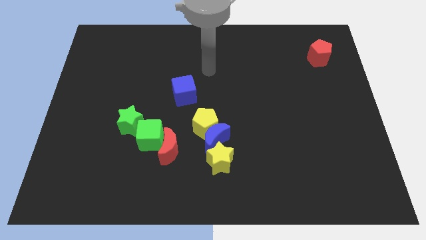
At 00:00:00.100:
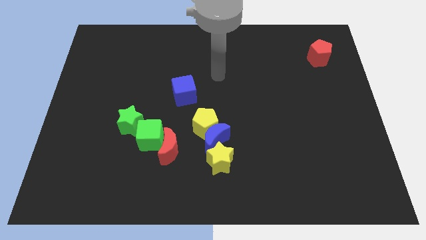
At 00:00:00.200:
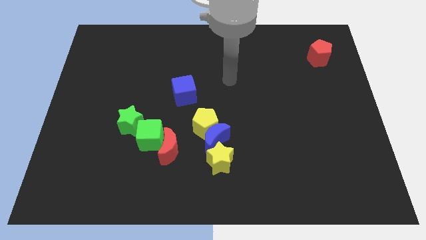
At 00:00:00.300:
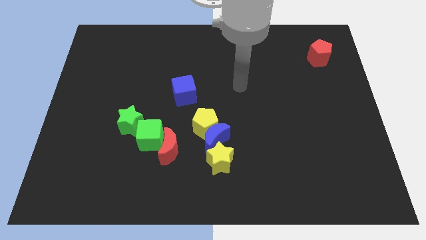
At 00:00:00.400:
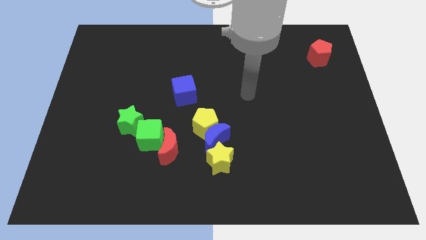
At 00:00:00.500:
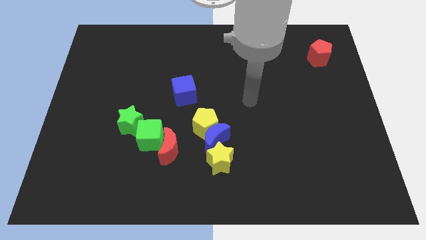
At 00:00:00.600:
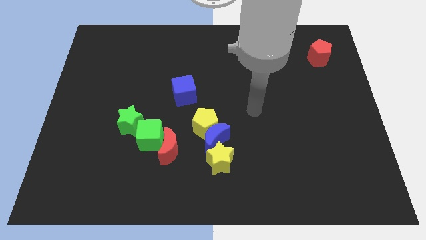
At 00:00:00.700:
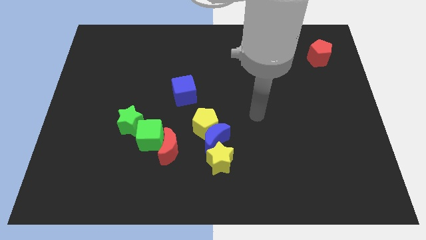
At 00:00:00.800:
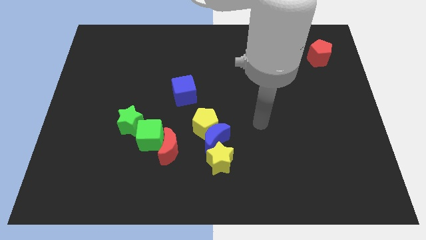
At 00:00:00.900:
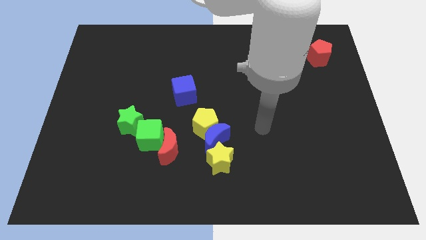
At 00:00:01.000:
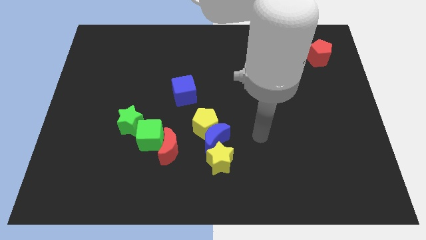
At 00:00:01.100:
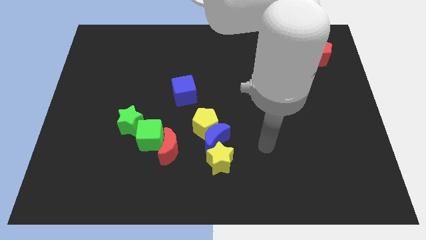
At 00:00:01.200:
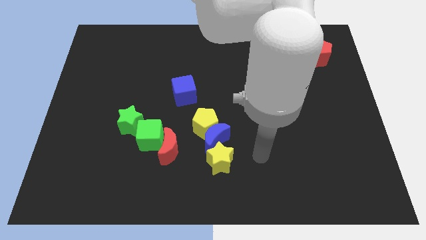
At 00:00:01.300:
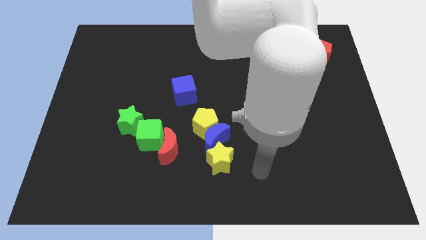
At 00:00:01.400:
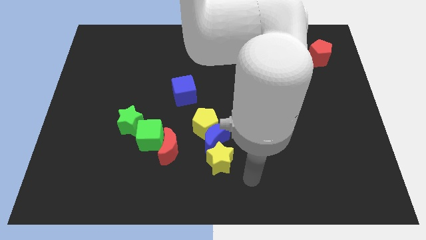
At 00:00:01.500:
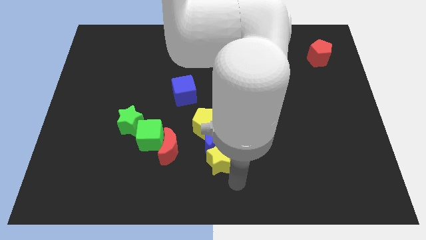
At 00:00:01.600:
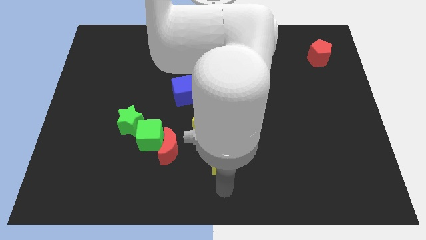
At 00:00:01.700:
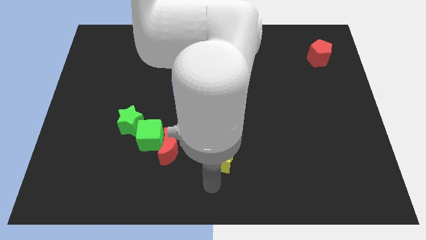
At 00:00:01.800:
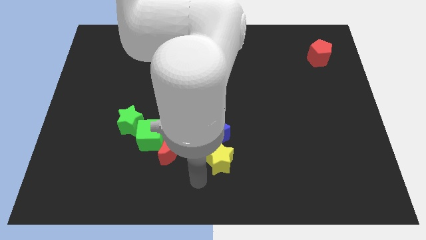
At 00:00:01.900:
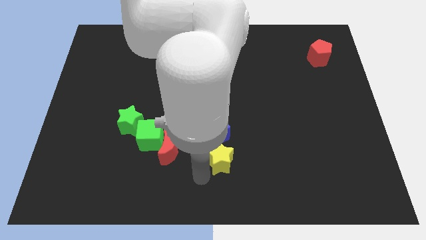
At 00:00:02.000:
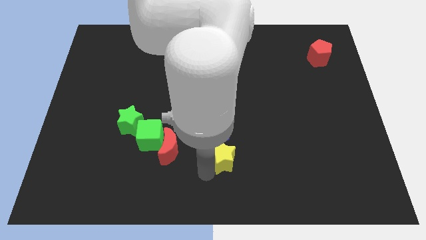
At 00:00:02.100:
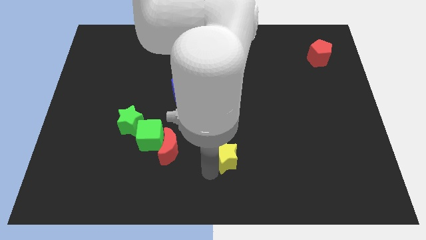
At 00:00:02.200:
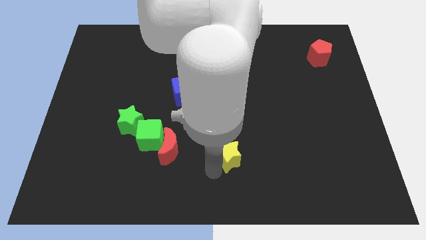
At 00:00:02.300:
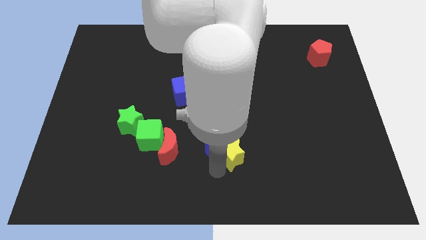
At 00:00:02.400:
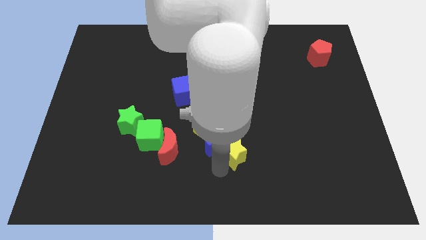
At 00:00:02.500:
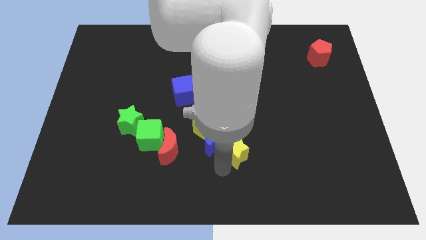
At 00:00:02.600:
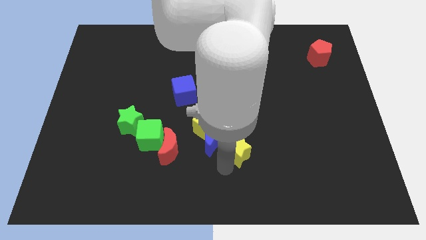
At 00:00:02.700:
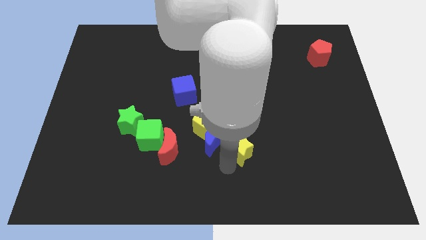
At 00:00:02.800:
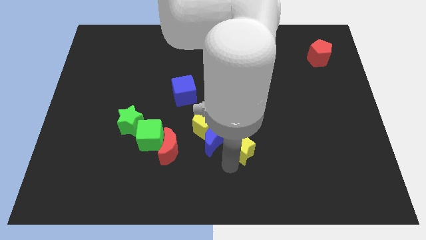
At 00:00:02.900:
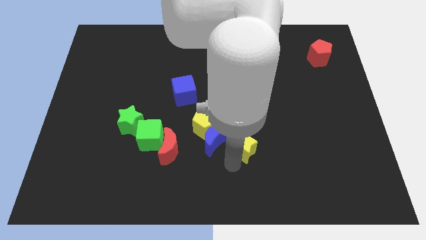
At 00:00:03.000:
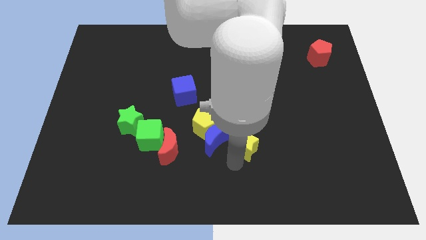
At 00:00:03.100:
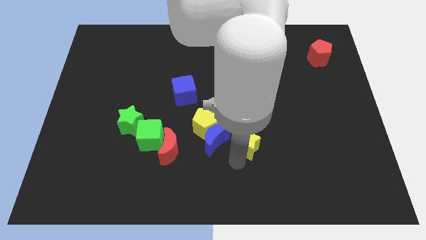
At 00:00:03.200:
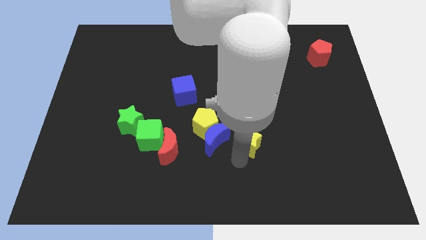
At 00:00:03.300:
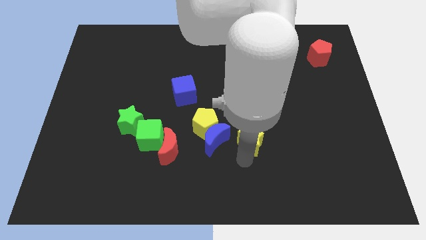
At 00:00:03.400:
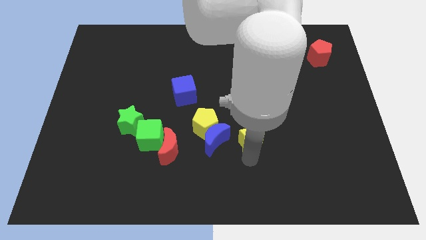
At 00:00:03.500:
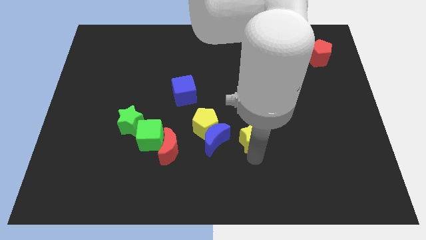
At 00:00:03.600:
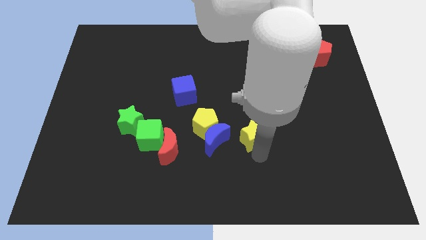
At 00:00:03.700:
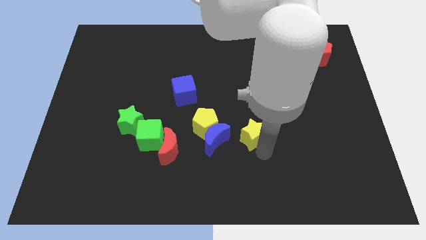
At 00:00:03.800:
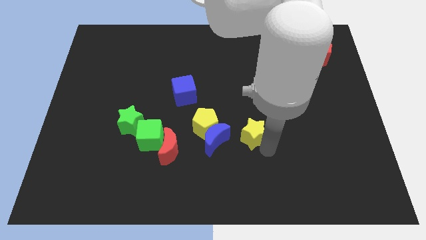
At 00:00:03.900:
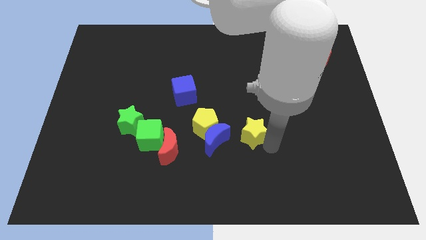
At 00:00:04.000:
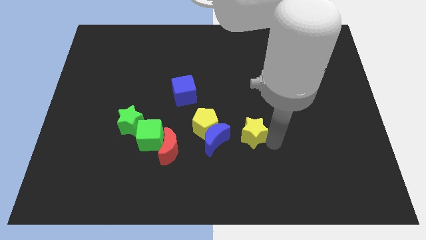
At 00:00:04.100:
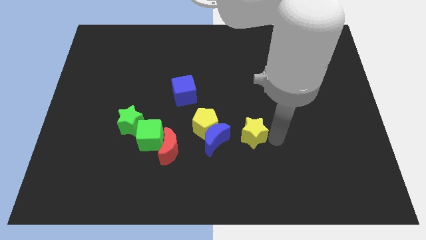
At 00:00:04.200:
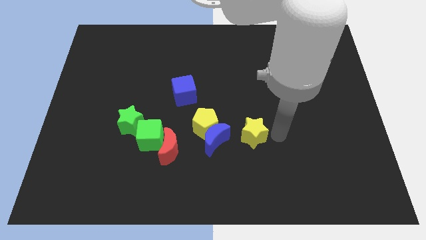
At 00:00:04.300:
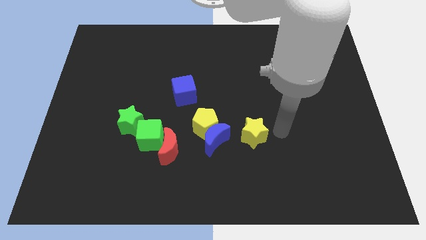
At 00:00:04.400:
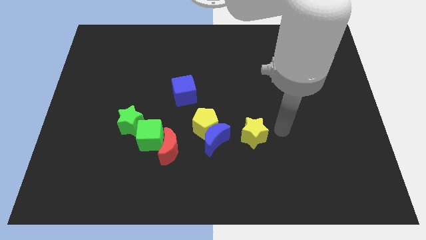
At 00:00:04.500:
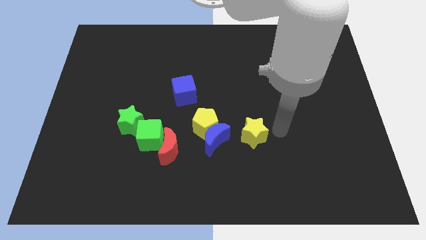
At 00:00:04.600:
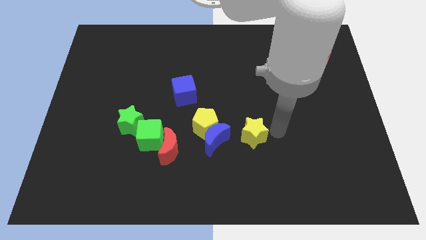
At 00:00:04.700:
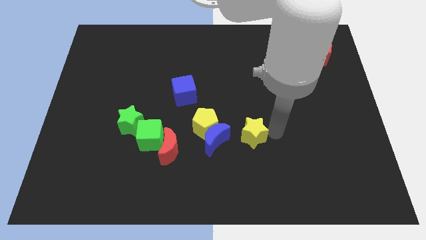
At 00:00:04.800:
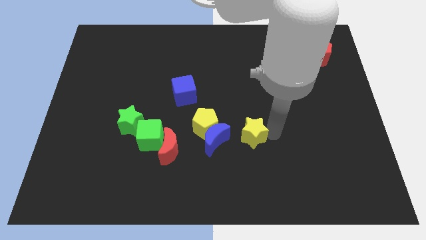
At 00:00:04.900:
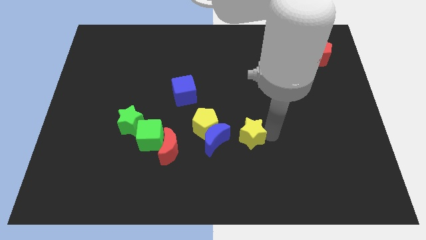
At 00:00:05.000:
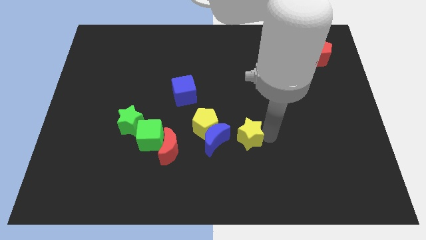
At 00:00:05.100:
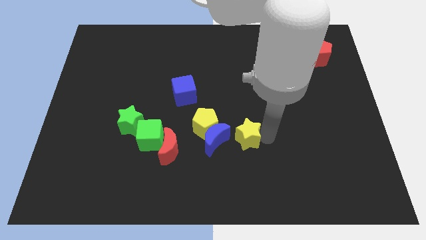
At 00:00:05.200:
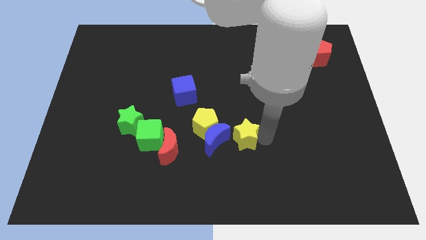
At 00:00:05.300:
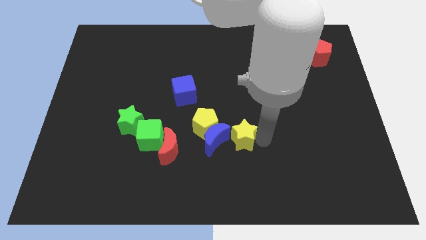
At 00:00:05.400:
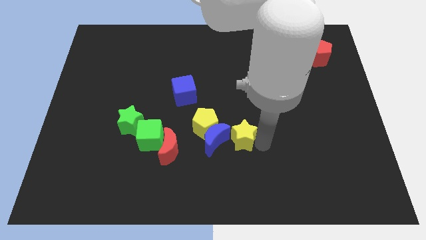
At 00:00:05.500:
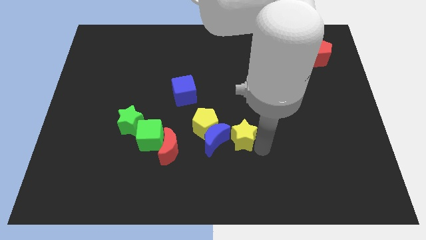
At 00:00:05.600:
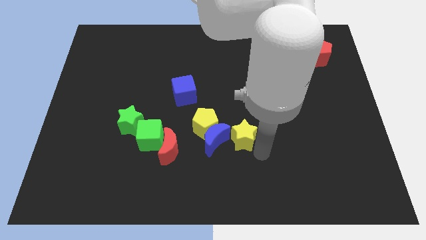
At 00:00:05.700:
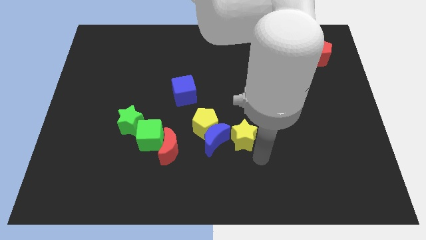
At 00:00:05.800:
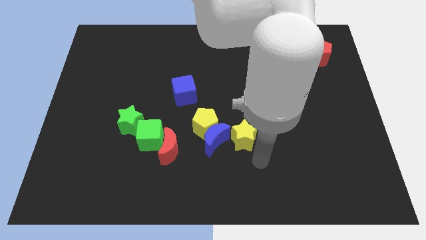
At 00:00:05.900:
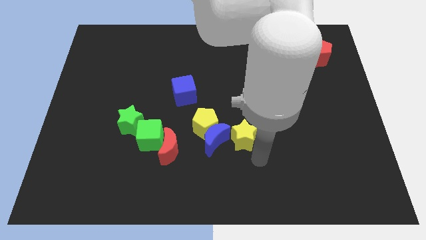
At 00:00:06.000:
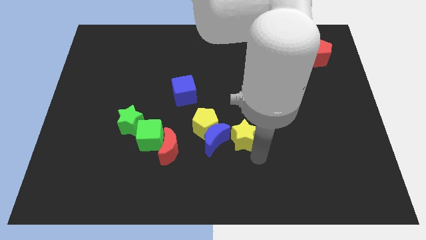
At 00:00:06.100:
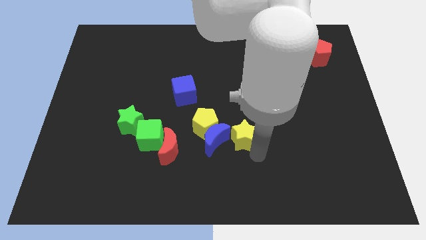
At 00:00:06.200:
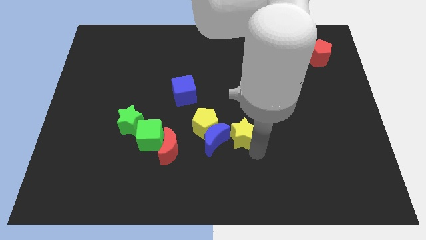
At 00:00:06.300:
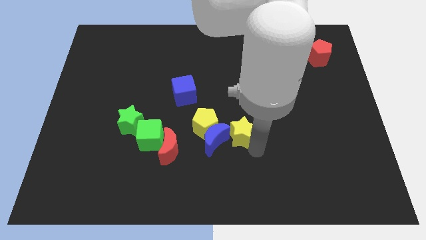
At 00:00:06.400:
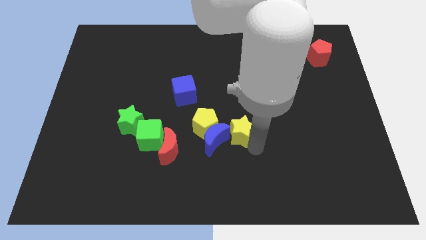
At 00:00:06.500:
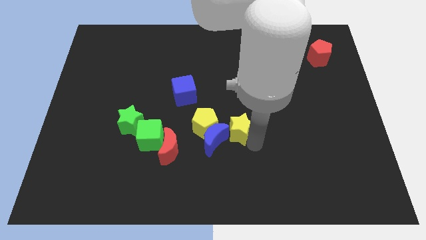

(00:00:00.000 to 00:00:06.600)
push the yellow star upwards a little

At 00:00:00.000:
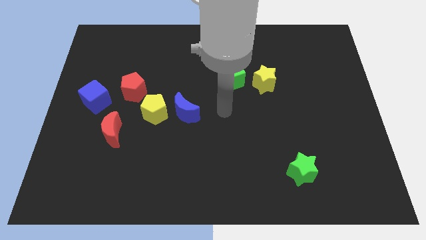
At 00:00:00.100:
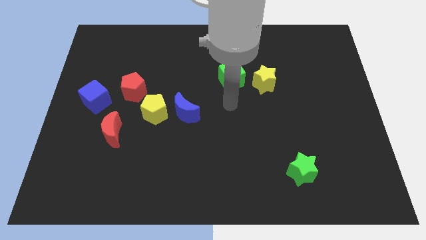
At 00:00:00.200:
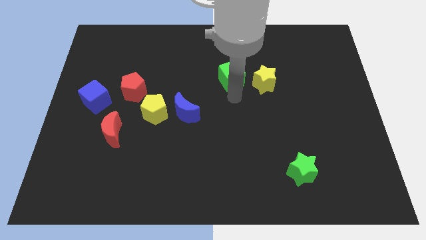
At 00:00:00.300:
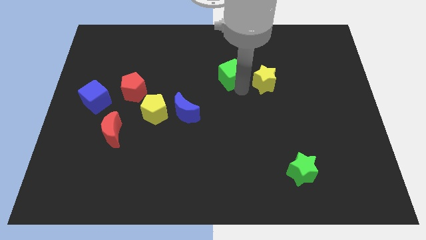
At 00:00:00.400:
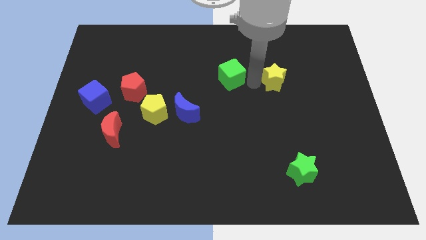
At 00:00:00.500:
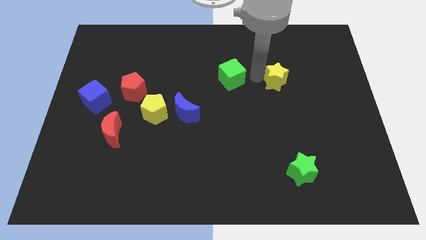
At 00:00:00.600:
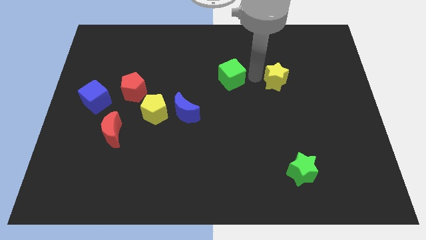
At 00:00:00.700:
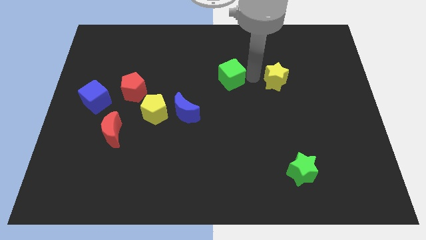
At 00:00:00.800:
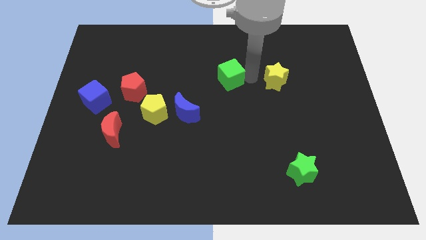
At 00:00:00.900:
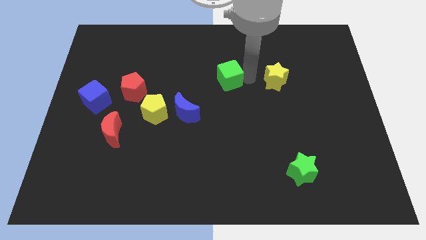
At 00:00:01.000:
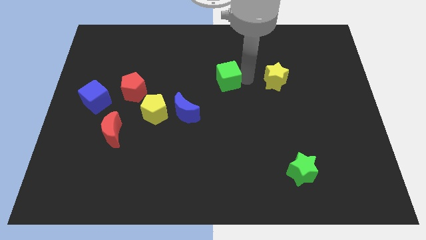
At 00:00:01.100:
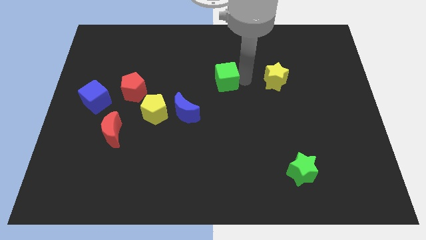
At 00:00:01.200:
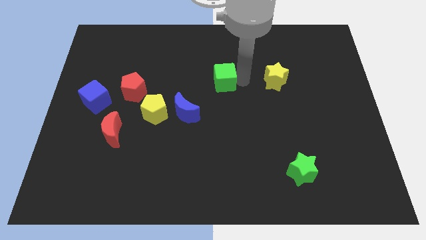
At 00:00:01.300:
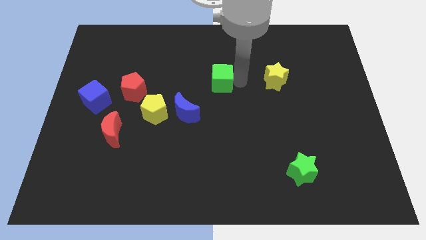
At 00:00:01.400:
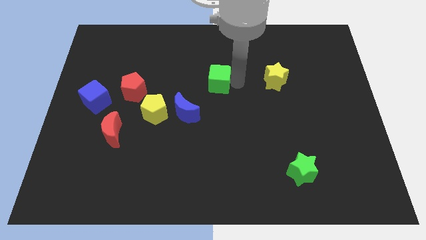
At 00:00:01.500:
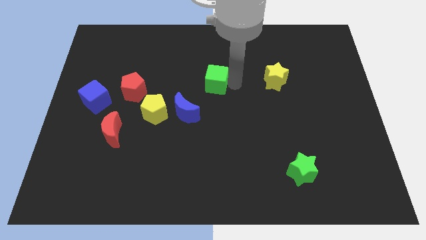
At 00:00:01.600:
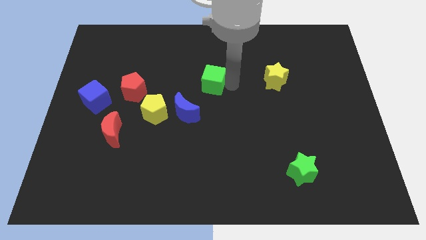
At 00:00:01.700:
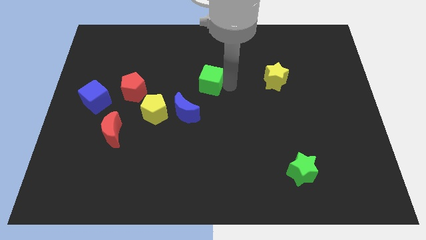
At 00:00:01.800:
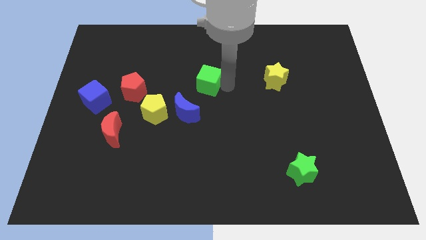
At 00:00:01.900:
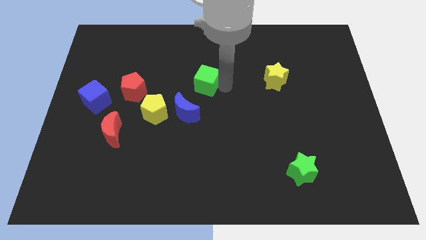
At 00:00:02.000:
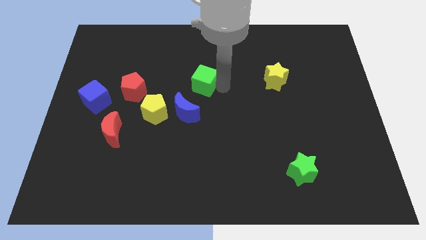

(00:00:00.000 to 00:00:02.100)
slightly slide the green cube left
